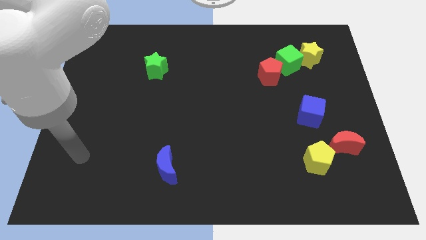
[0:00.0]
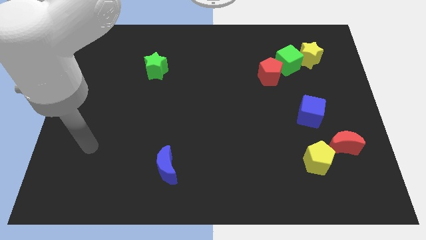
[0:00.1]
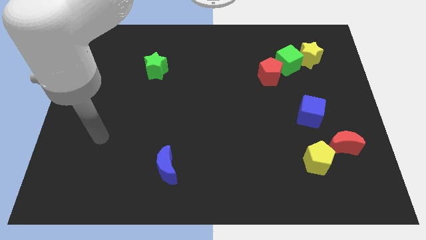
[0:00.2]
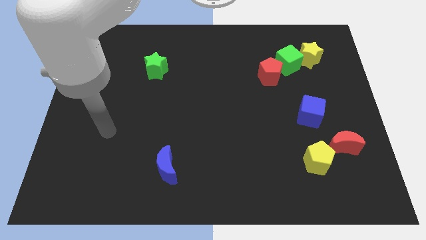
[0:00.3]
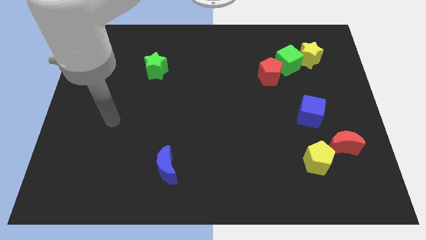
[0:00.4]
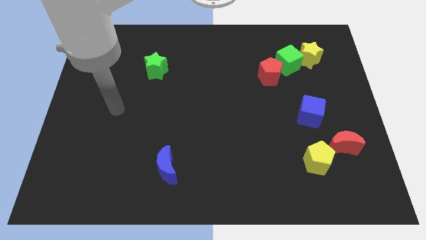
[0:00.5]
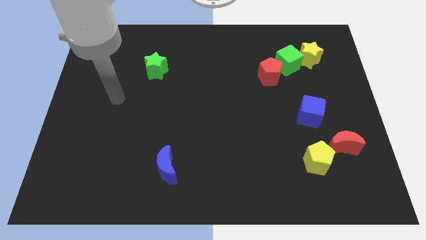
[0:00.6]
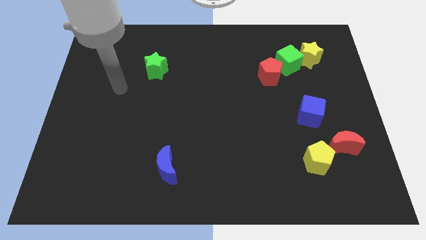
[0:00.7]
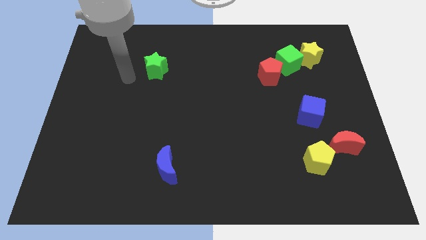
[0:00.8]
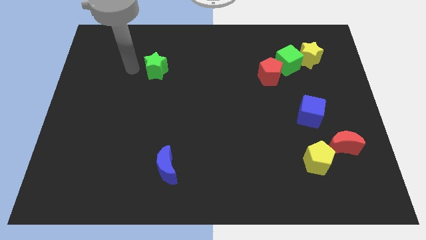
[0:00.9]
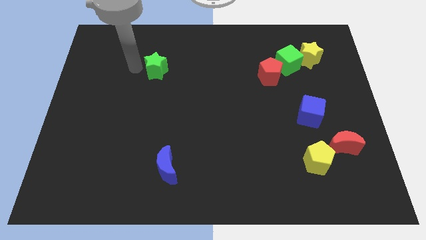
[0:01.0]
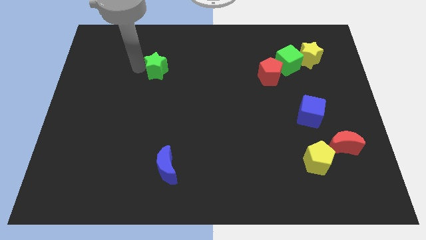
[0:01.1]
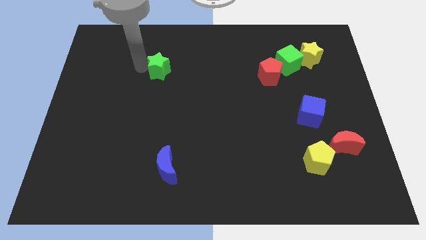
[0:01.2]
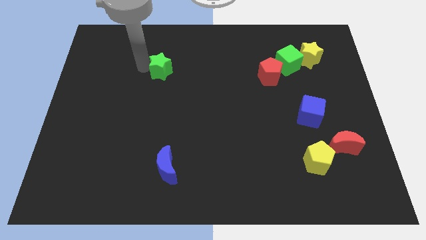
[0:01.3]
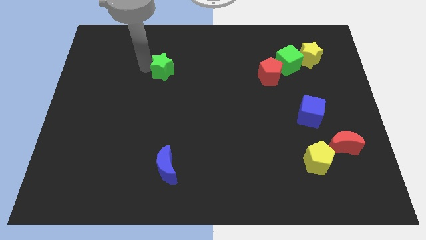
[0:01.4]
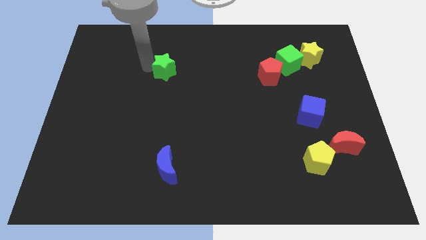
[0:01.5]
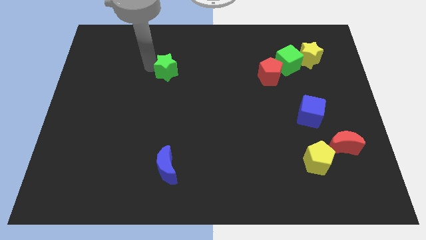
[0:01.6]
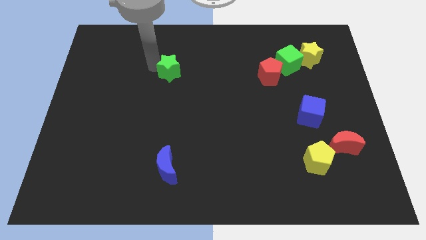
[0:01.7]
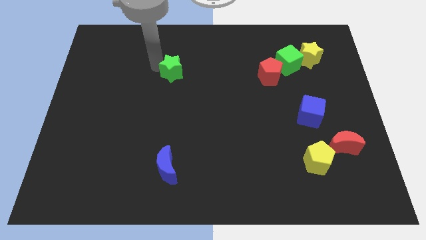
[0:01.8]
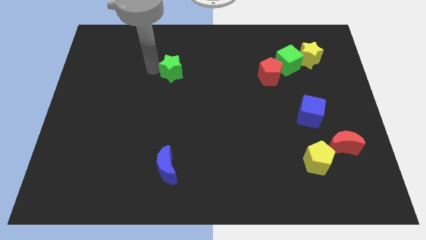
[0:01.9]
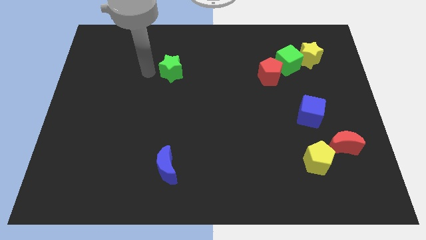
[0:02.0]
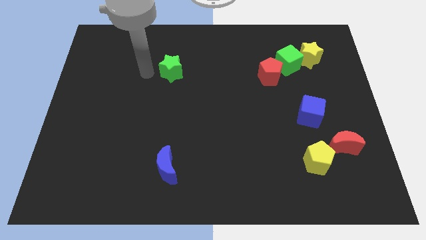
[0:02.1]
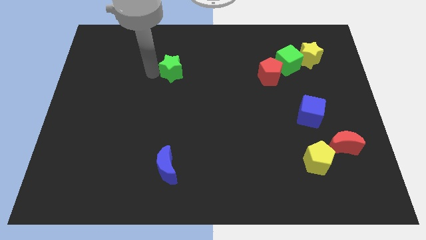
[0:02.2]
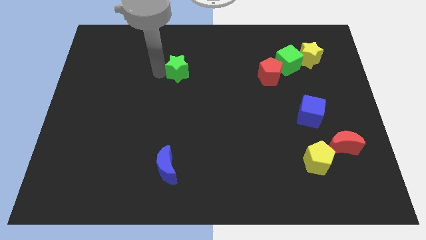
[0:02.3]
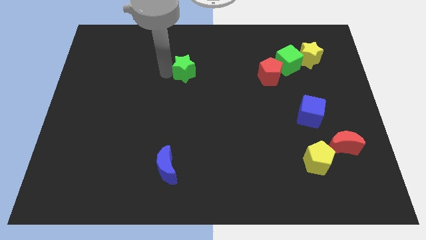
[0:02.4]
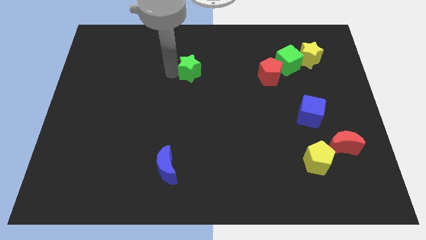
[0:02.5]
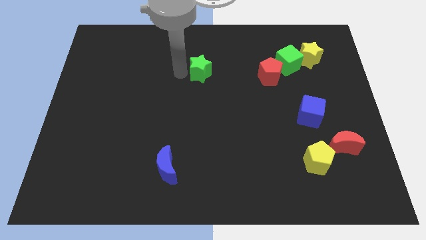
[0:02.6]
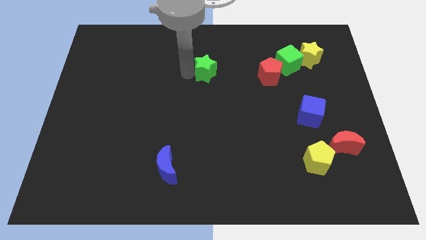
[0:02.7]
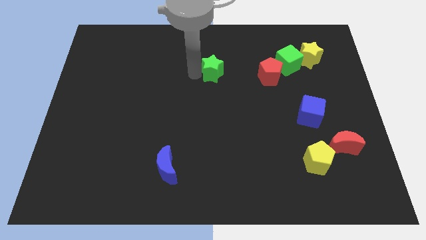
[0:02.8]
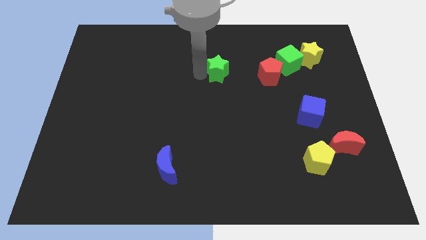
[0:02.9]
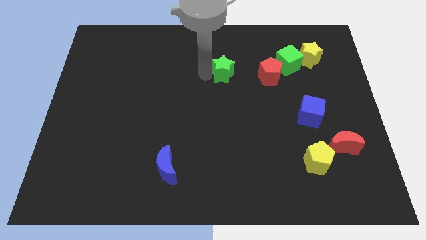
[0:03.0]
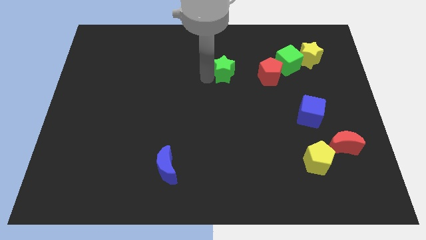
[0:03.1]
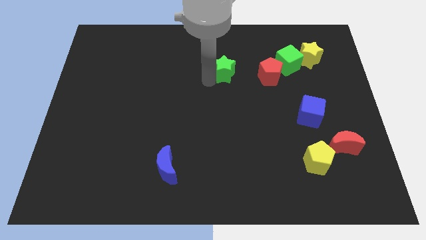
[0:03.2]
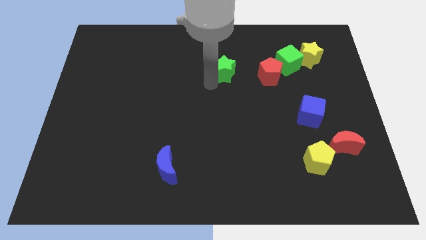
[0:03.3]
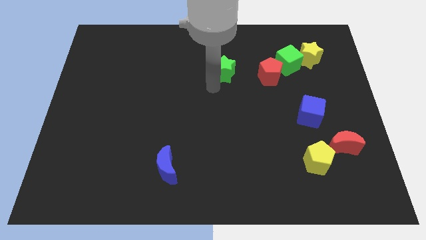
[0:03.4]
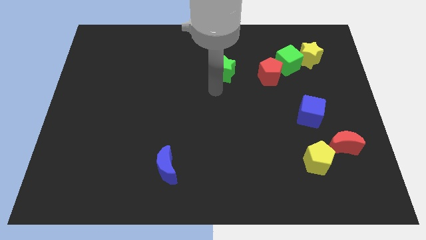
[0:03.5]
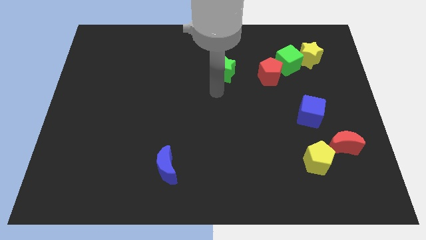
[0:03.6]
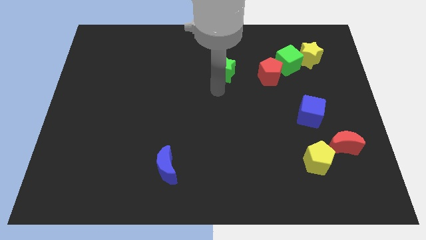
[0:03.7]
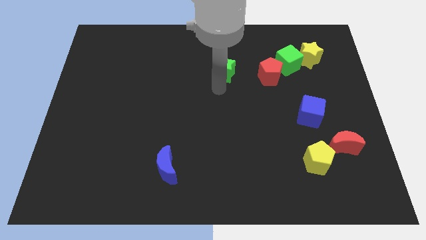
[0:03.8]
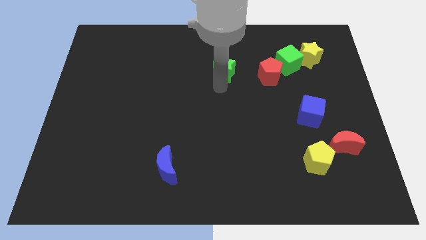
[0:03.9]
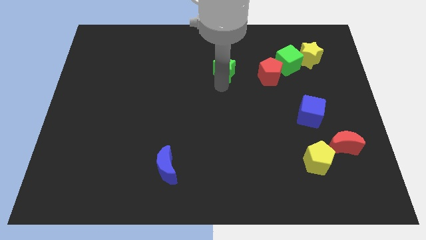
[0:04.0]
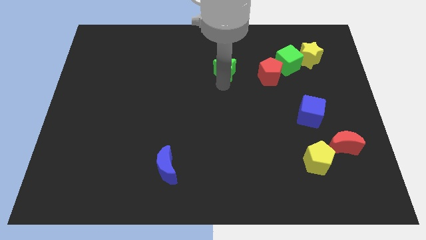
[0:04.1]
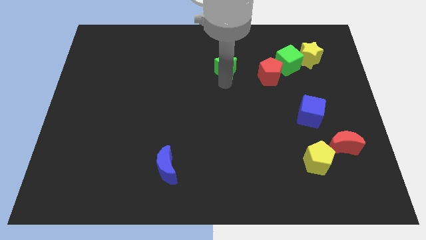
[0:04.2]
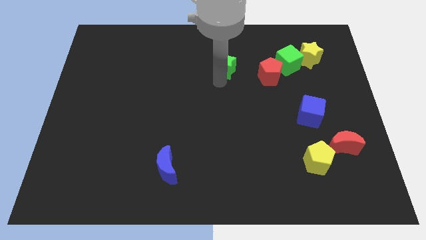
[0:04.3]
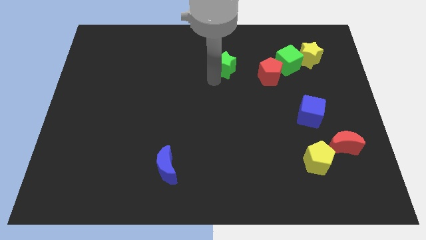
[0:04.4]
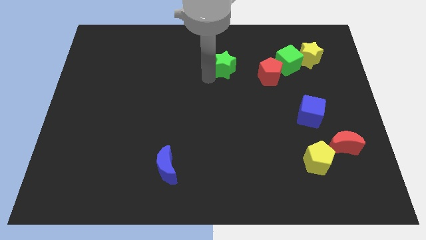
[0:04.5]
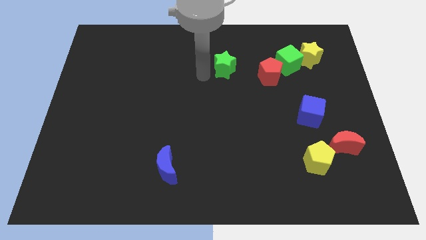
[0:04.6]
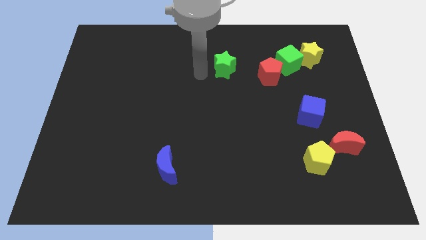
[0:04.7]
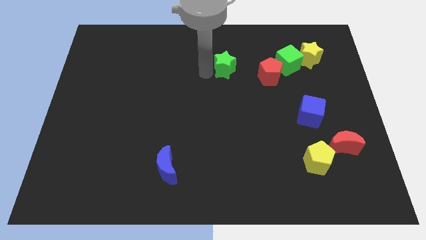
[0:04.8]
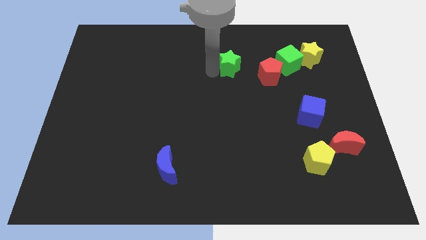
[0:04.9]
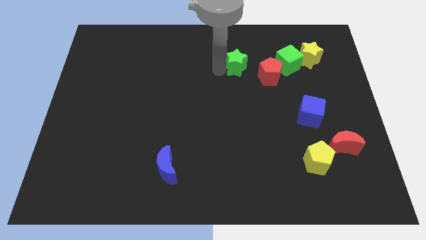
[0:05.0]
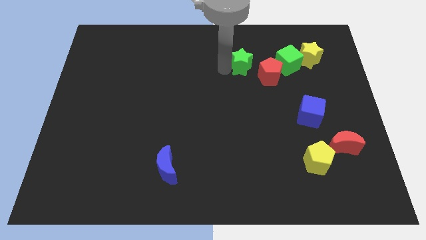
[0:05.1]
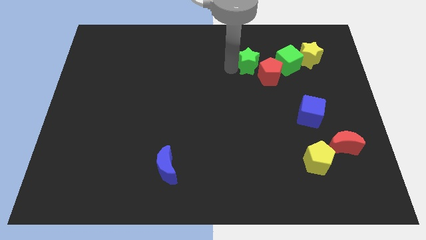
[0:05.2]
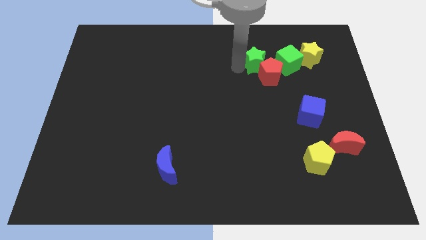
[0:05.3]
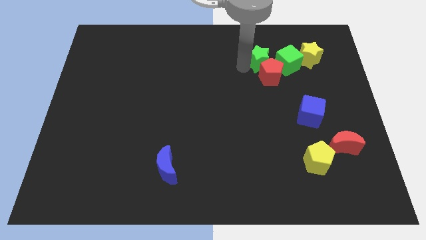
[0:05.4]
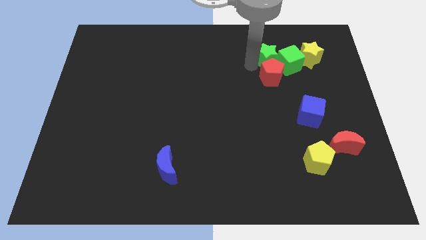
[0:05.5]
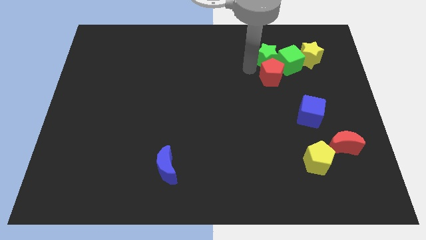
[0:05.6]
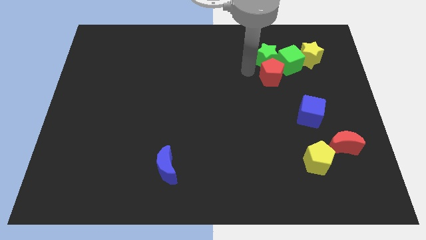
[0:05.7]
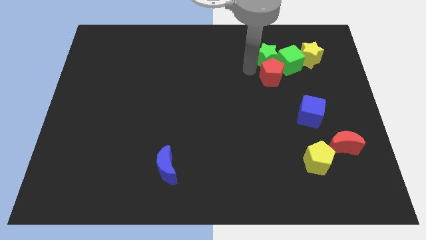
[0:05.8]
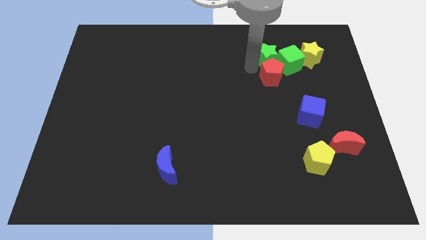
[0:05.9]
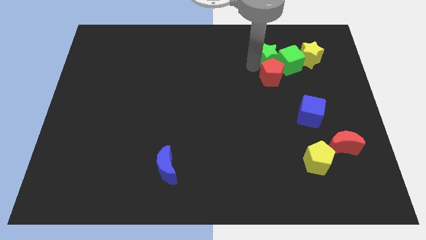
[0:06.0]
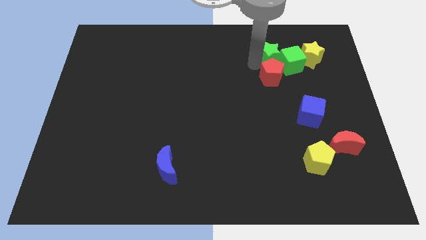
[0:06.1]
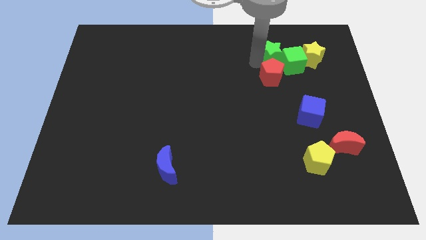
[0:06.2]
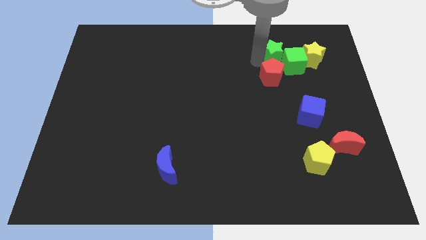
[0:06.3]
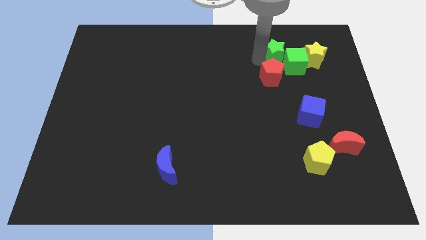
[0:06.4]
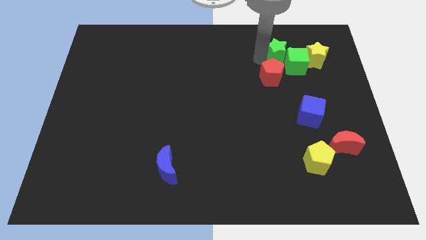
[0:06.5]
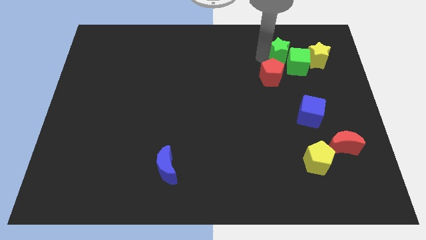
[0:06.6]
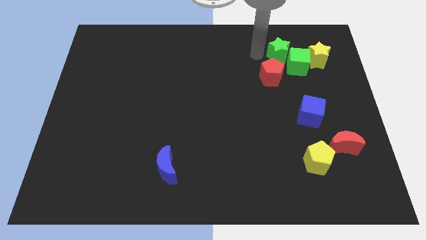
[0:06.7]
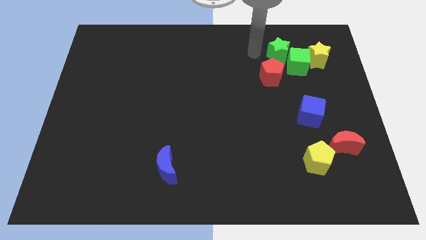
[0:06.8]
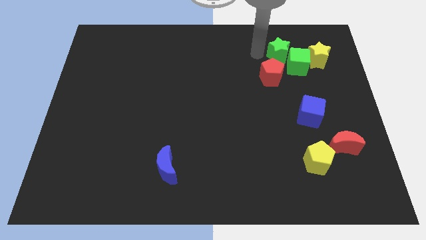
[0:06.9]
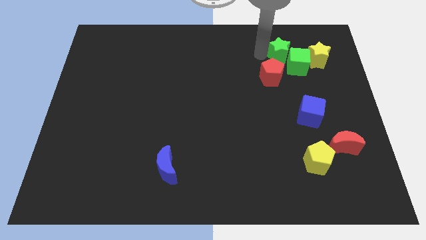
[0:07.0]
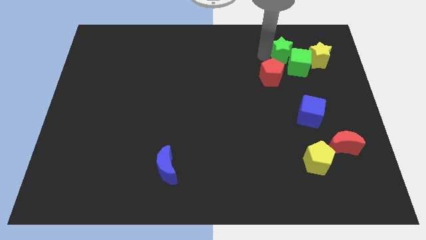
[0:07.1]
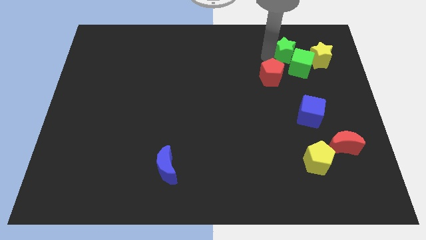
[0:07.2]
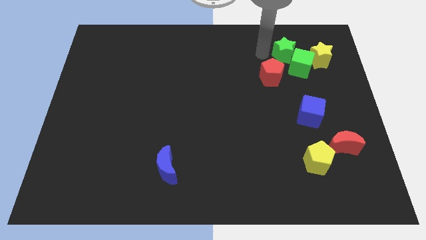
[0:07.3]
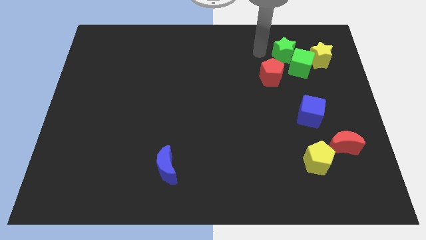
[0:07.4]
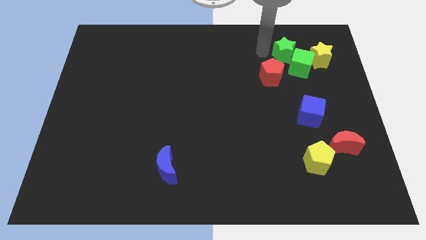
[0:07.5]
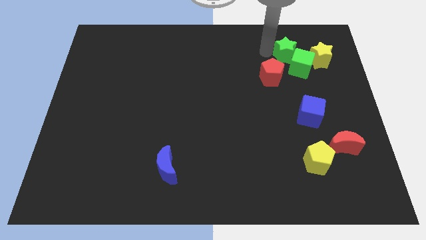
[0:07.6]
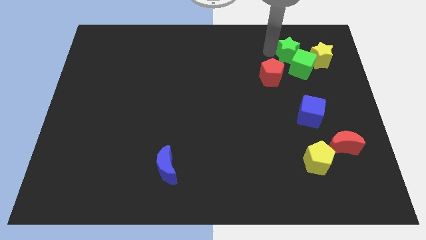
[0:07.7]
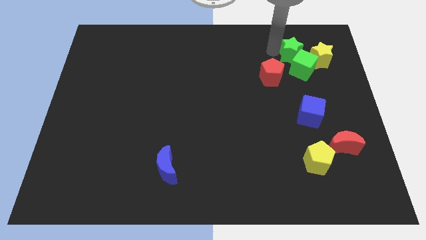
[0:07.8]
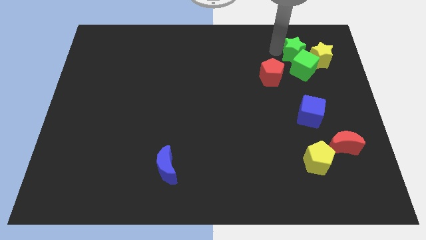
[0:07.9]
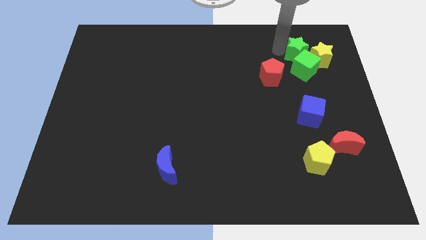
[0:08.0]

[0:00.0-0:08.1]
slide the green star to the yellow star
